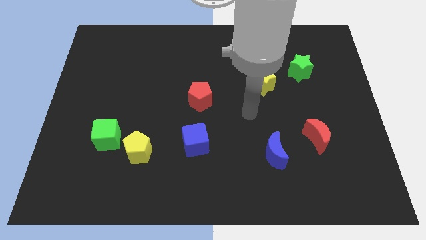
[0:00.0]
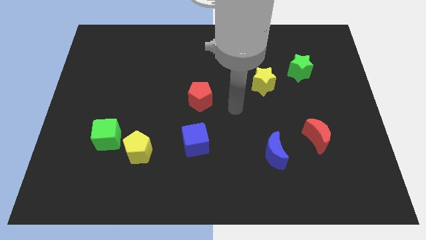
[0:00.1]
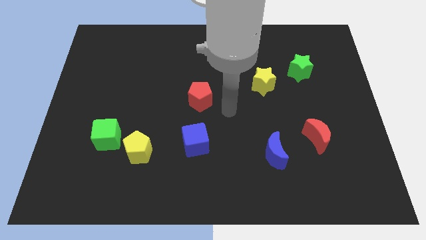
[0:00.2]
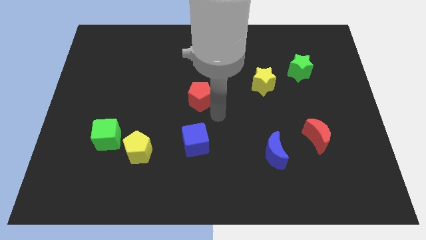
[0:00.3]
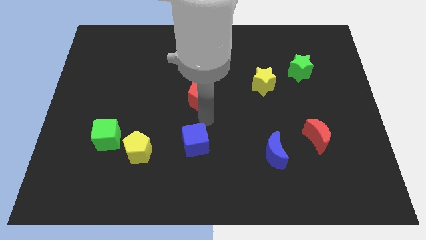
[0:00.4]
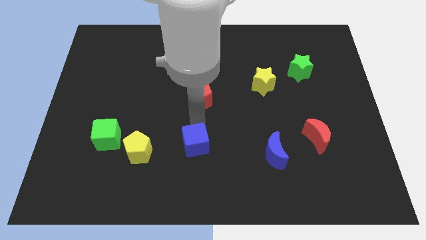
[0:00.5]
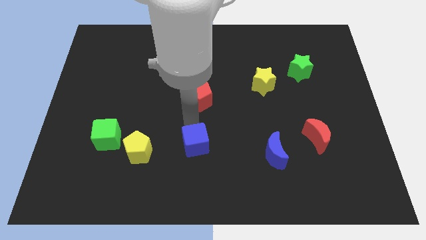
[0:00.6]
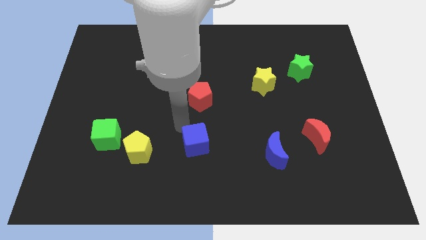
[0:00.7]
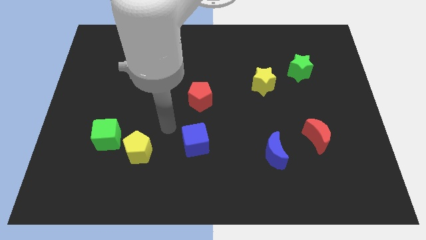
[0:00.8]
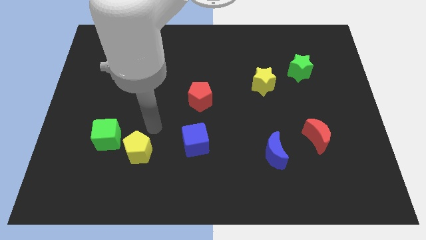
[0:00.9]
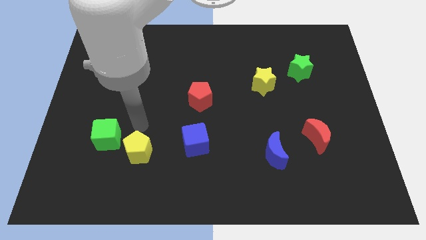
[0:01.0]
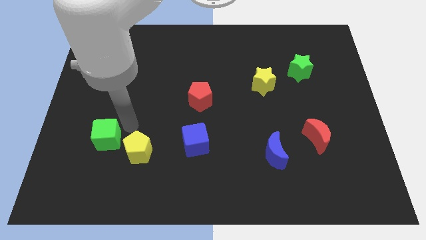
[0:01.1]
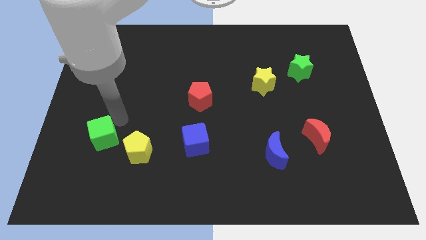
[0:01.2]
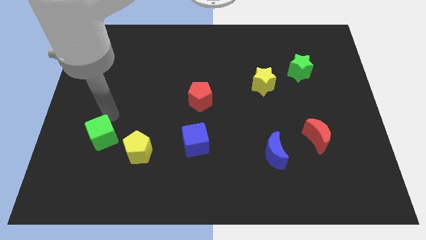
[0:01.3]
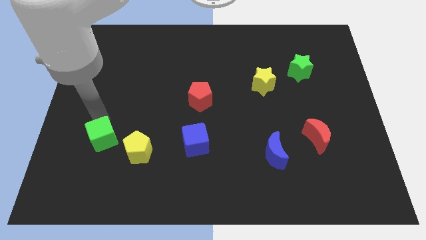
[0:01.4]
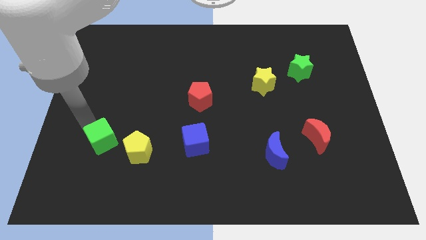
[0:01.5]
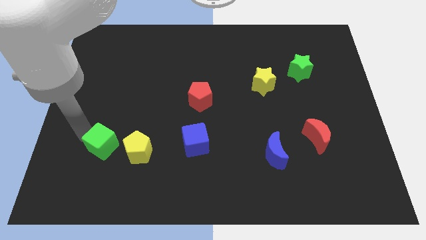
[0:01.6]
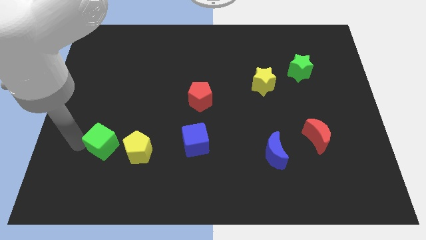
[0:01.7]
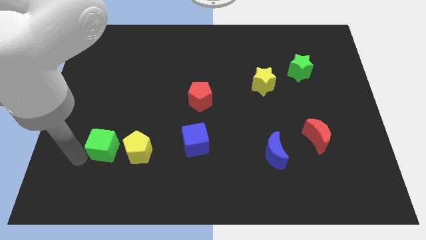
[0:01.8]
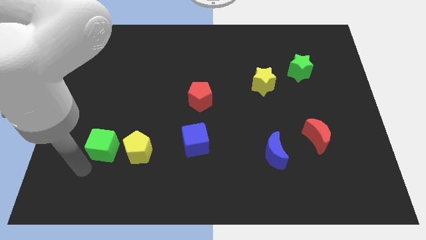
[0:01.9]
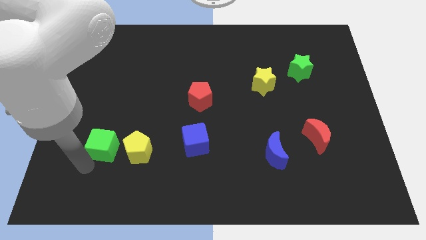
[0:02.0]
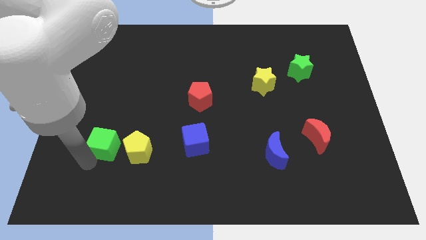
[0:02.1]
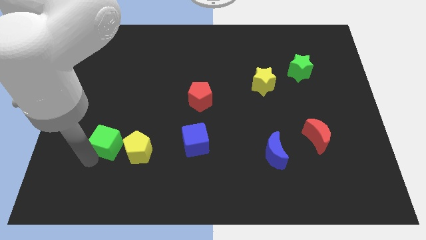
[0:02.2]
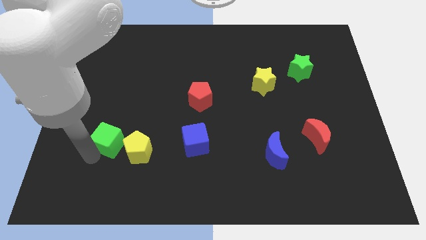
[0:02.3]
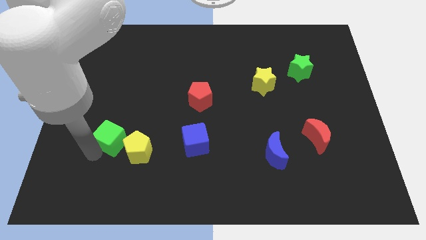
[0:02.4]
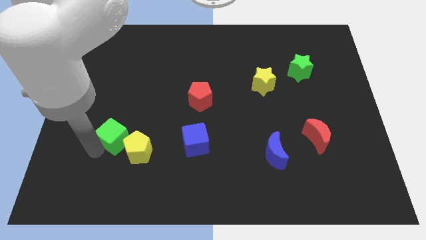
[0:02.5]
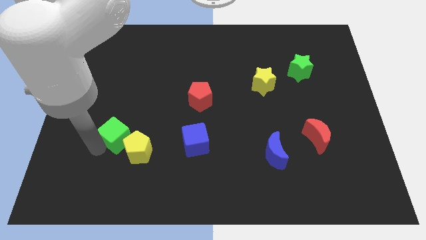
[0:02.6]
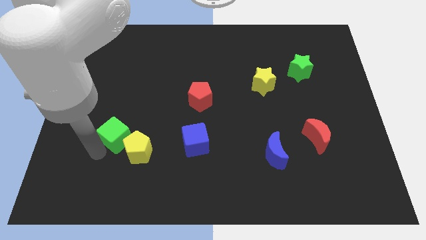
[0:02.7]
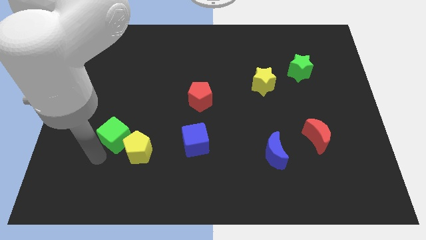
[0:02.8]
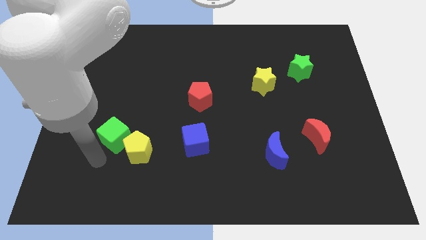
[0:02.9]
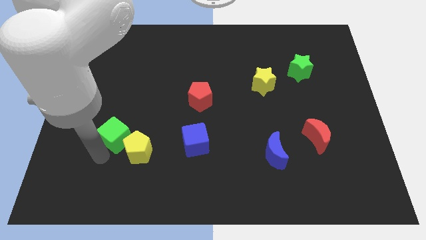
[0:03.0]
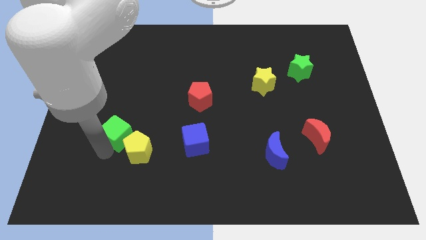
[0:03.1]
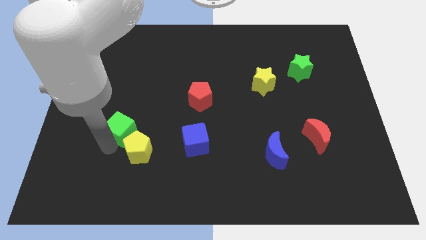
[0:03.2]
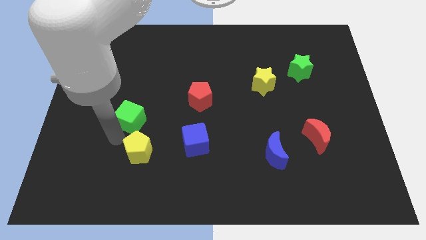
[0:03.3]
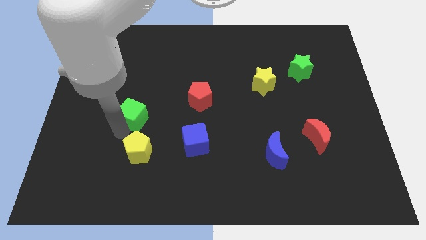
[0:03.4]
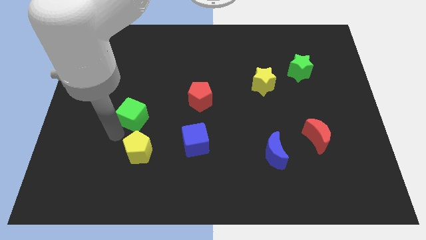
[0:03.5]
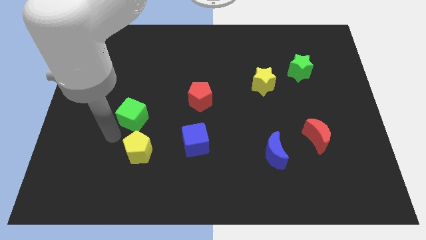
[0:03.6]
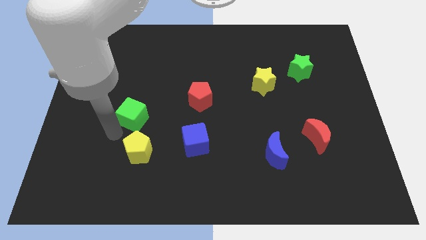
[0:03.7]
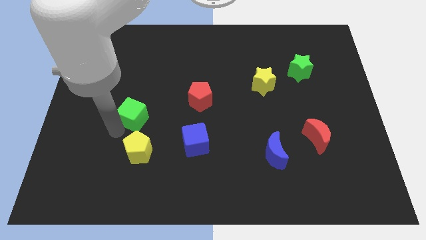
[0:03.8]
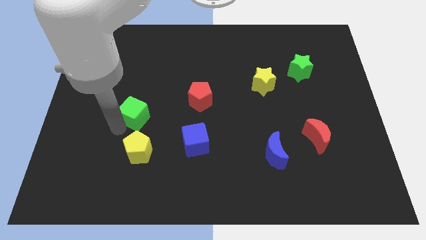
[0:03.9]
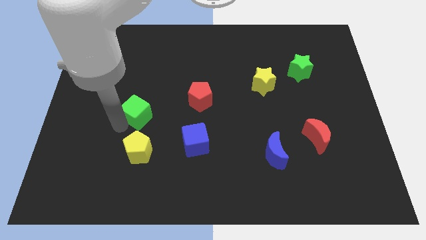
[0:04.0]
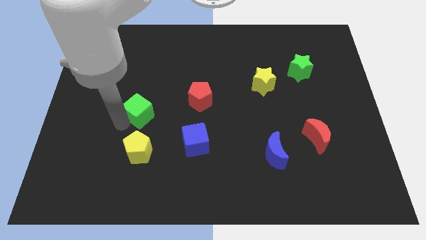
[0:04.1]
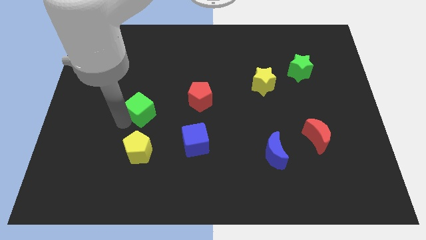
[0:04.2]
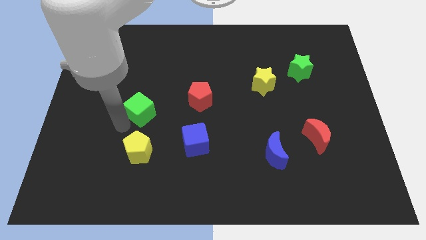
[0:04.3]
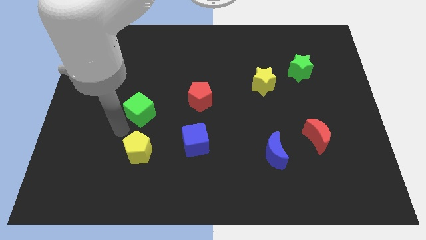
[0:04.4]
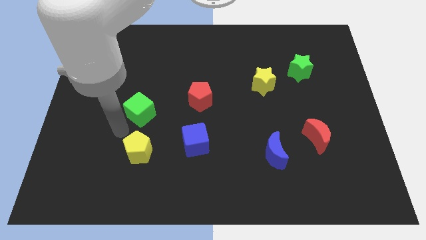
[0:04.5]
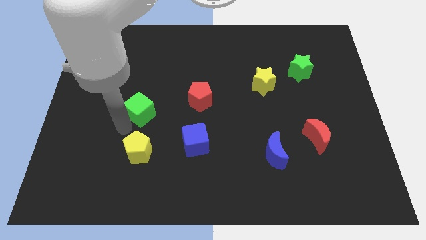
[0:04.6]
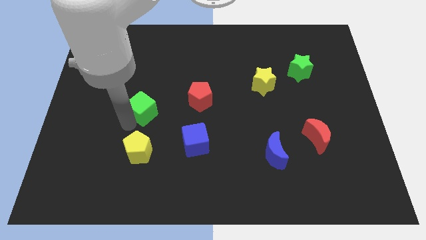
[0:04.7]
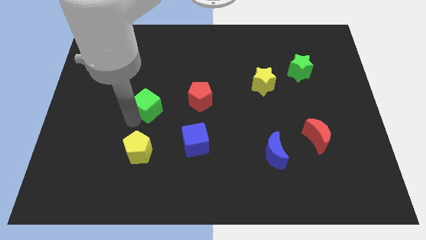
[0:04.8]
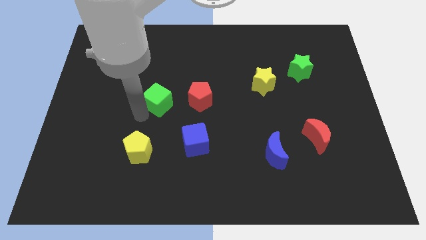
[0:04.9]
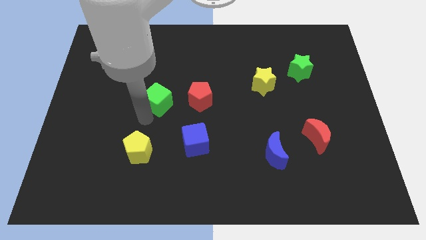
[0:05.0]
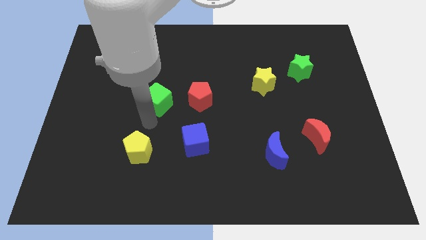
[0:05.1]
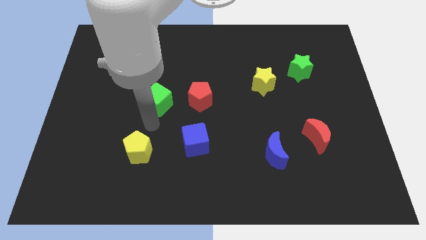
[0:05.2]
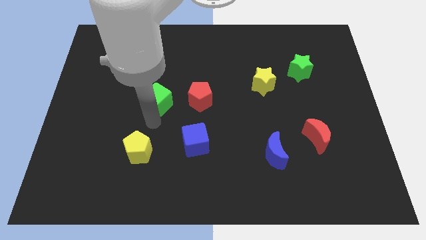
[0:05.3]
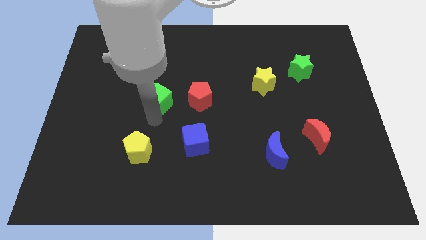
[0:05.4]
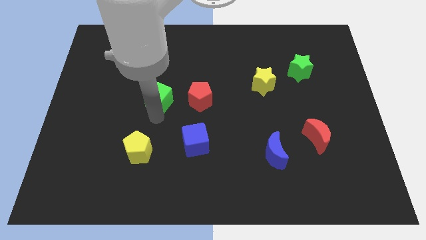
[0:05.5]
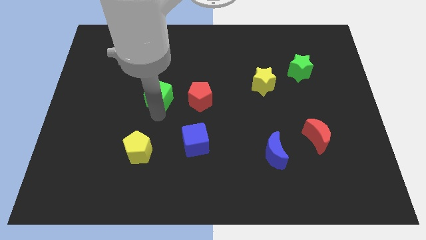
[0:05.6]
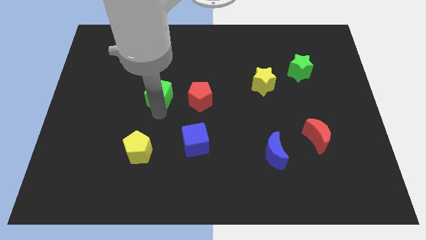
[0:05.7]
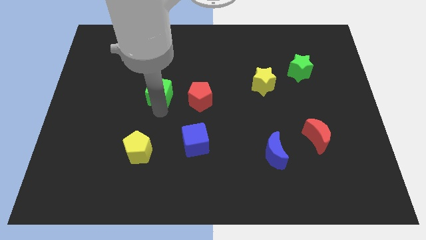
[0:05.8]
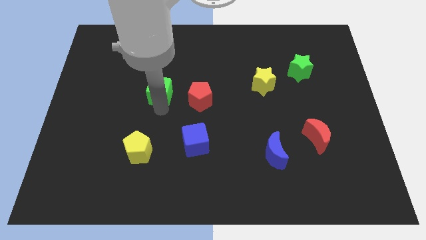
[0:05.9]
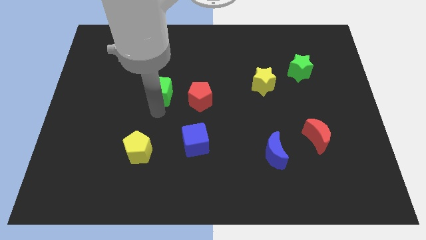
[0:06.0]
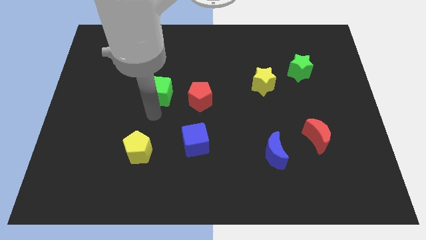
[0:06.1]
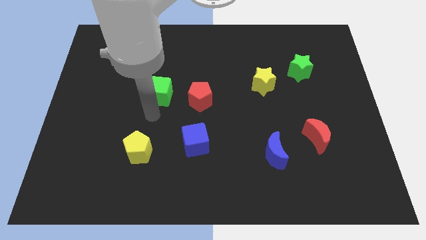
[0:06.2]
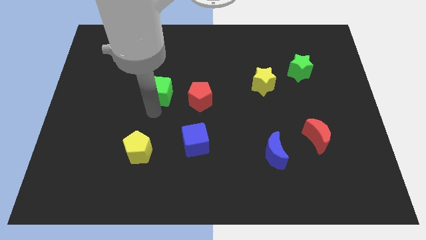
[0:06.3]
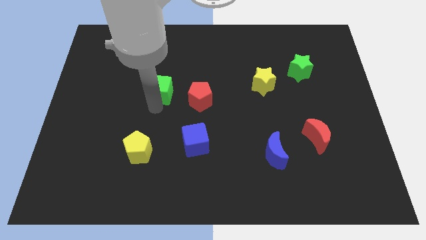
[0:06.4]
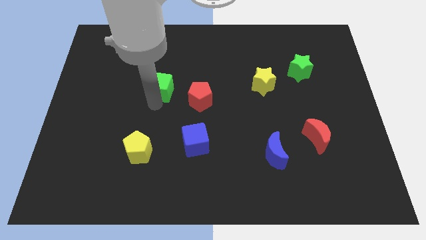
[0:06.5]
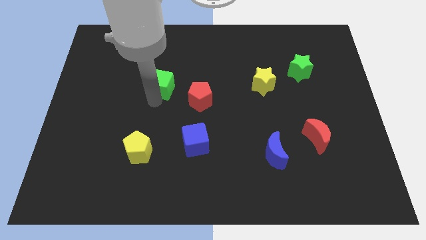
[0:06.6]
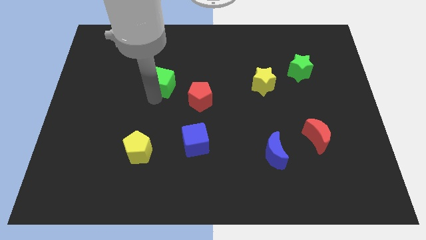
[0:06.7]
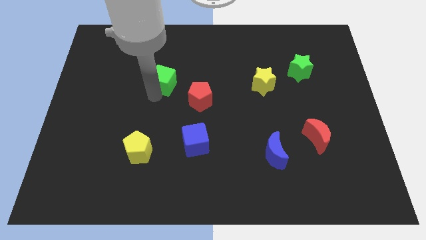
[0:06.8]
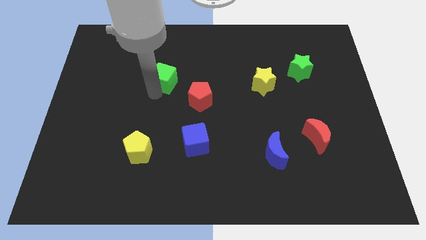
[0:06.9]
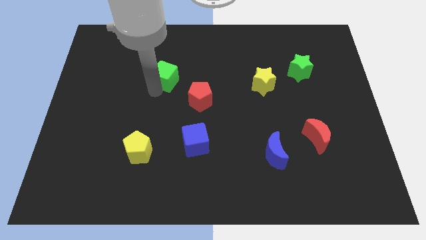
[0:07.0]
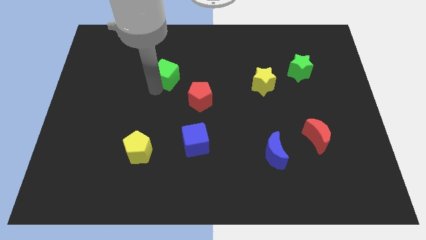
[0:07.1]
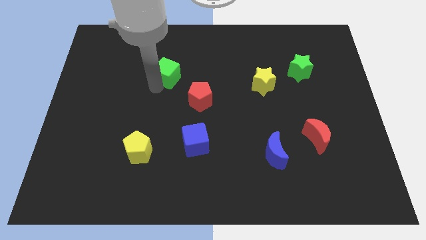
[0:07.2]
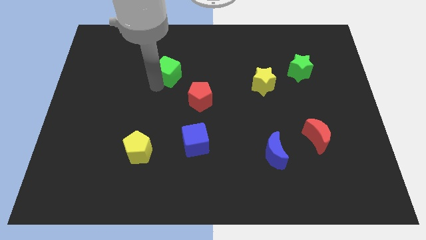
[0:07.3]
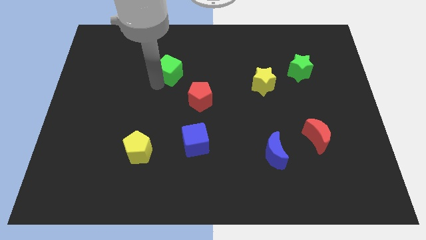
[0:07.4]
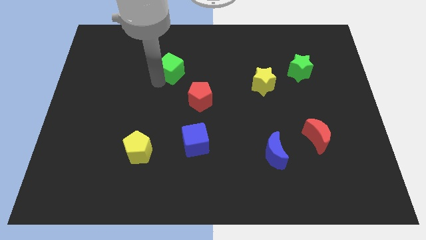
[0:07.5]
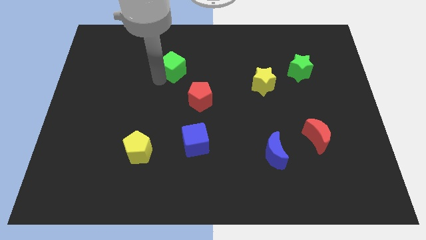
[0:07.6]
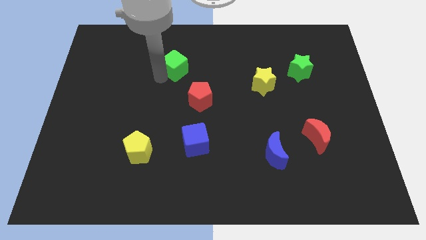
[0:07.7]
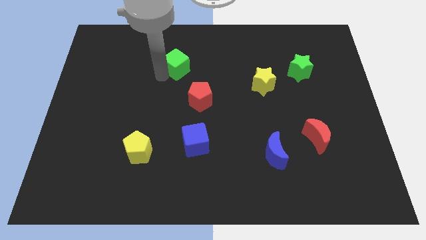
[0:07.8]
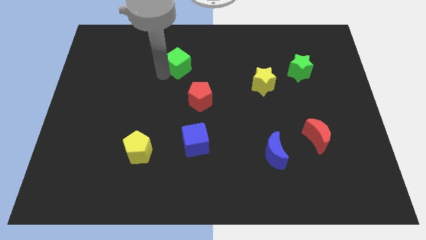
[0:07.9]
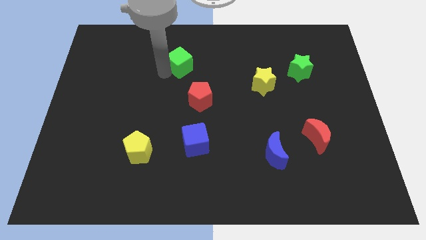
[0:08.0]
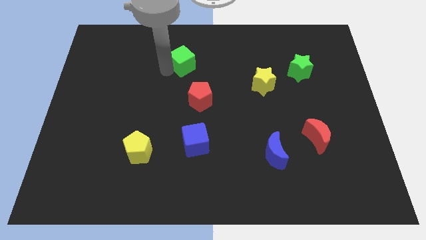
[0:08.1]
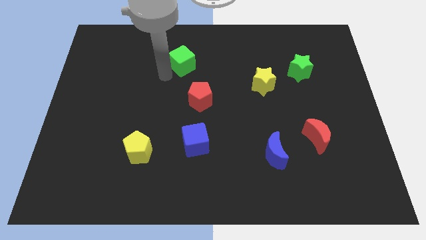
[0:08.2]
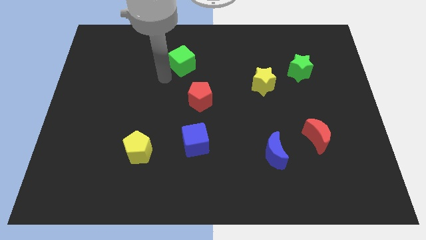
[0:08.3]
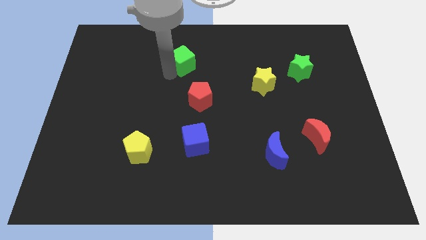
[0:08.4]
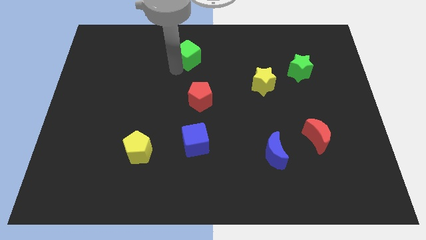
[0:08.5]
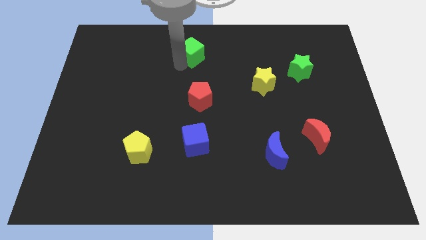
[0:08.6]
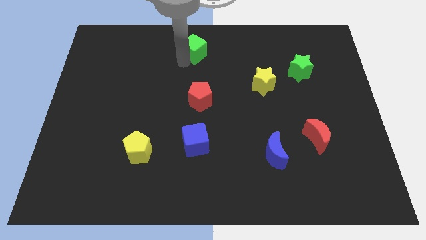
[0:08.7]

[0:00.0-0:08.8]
put the green cube to the top
